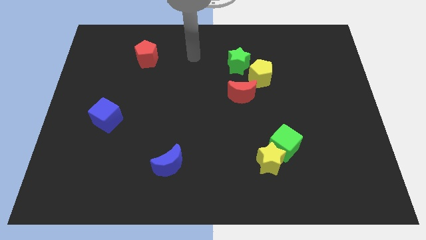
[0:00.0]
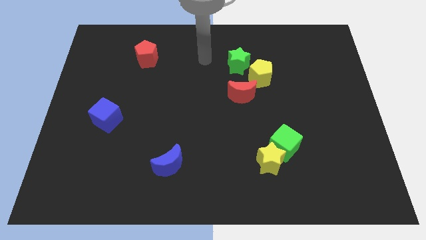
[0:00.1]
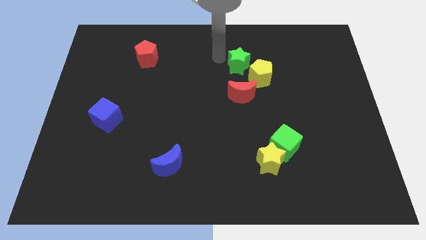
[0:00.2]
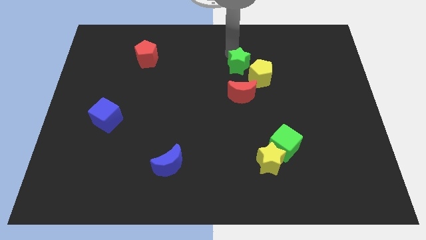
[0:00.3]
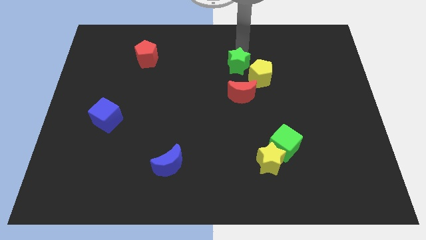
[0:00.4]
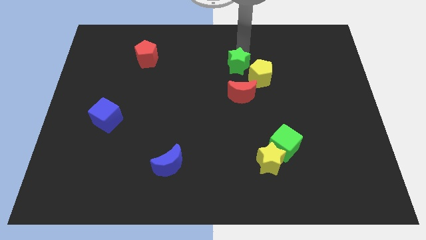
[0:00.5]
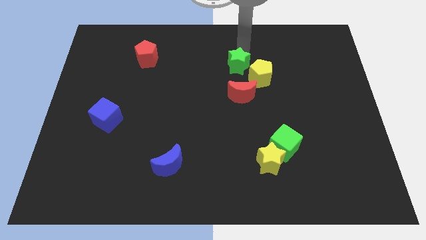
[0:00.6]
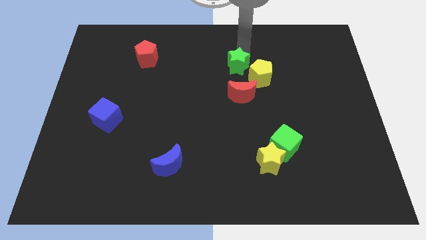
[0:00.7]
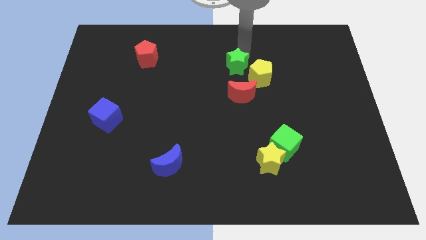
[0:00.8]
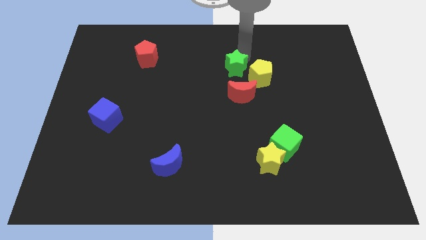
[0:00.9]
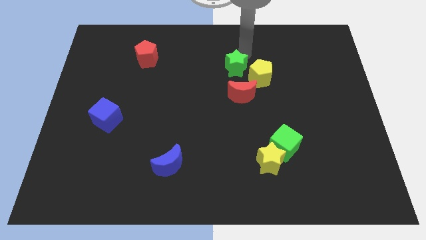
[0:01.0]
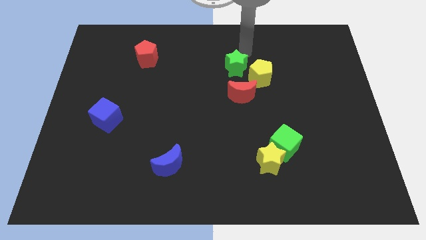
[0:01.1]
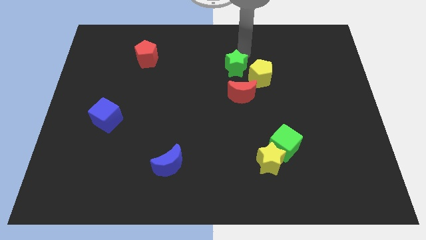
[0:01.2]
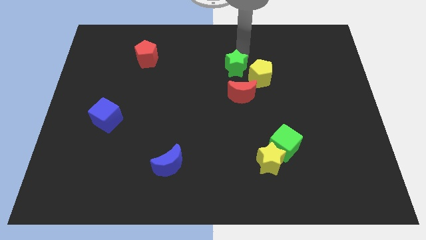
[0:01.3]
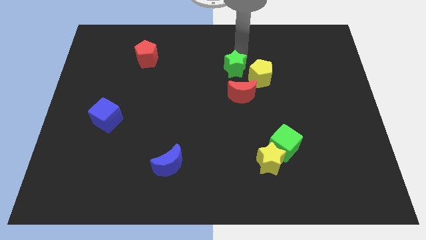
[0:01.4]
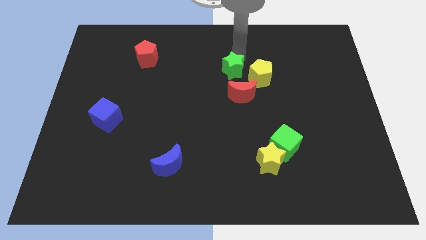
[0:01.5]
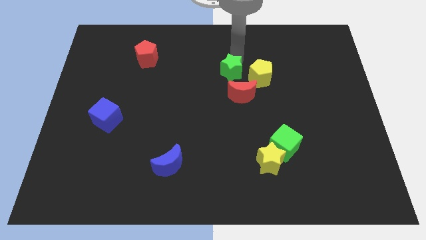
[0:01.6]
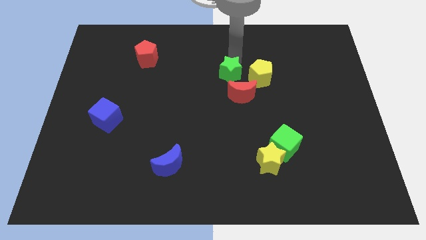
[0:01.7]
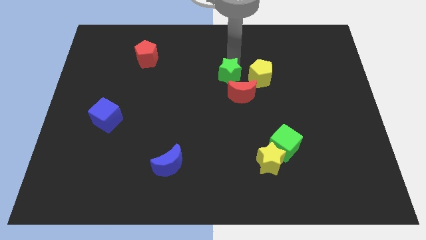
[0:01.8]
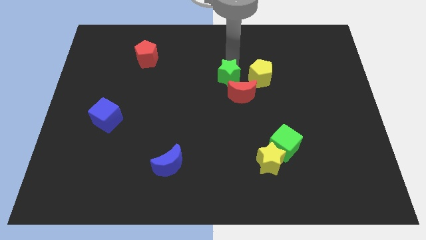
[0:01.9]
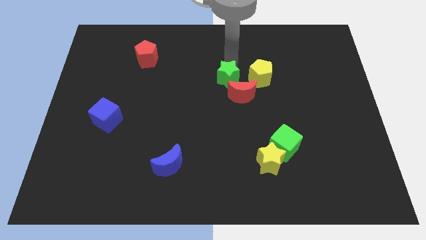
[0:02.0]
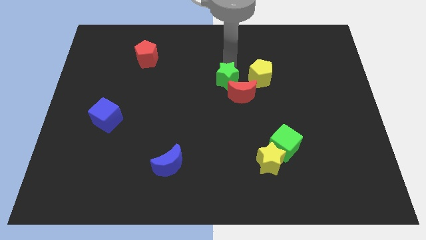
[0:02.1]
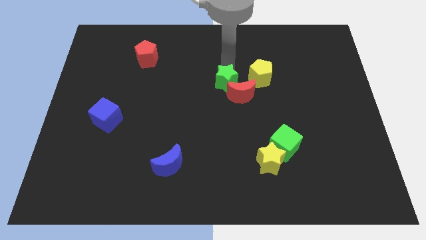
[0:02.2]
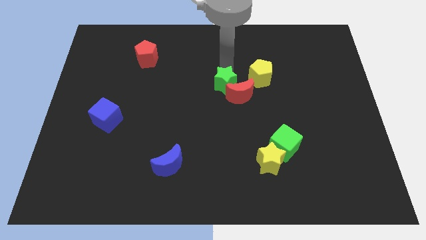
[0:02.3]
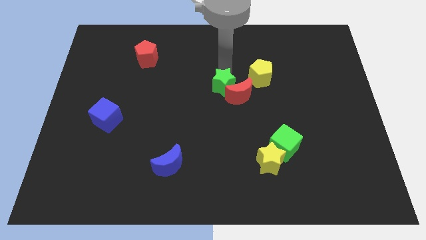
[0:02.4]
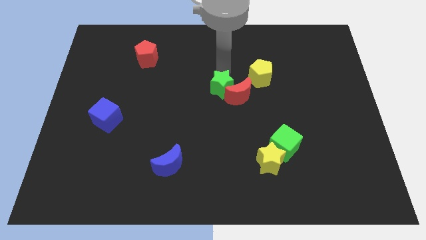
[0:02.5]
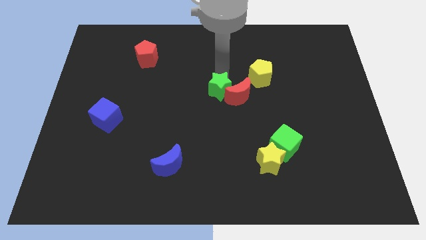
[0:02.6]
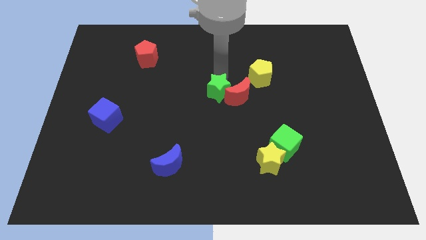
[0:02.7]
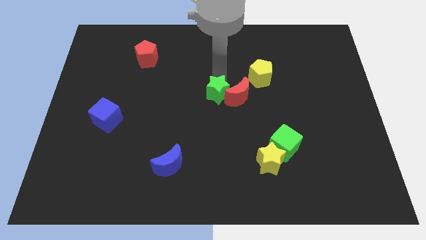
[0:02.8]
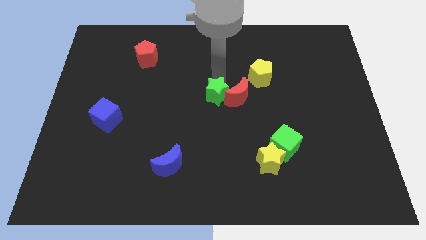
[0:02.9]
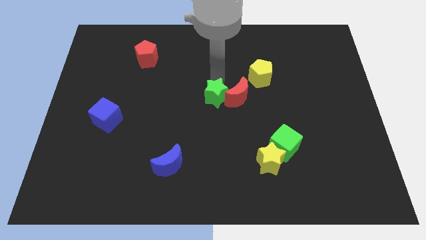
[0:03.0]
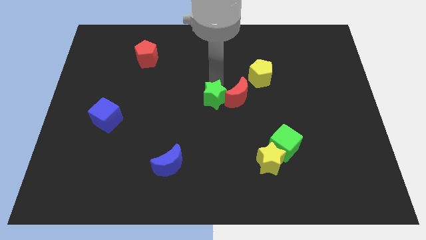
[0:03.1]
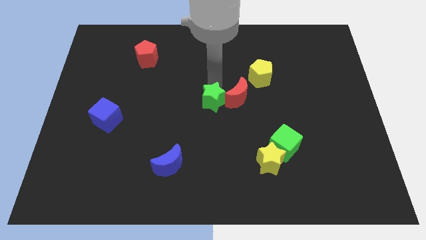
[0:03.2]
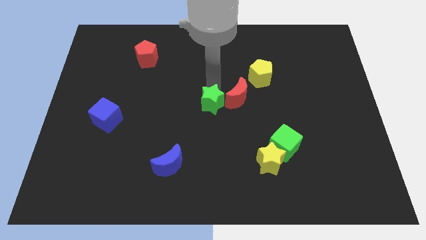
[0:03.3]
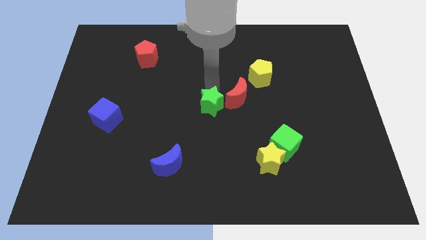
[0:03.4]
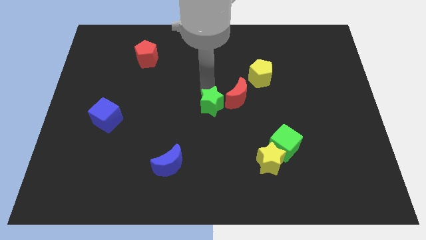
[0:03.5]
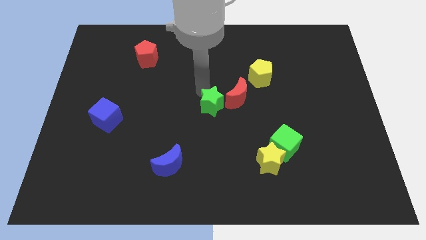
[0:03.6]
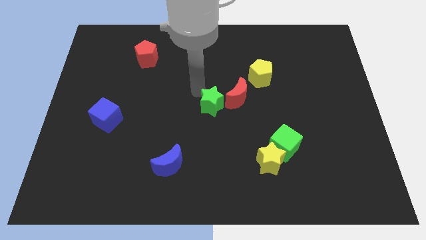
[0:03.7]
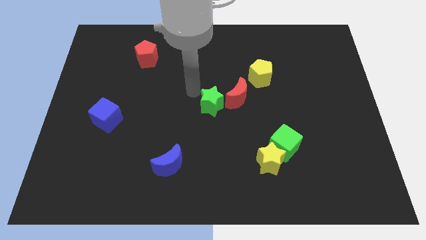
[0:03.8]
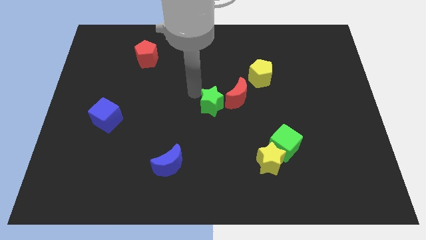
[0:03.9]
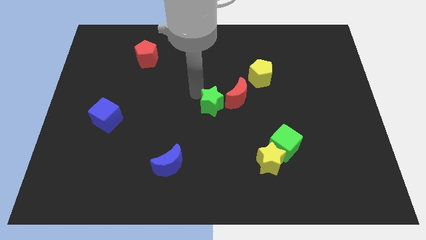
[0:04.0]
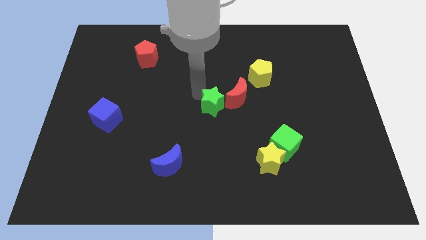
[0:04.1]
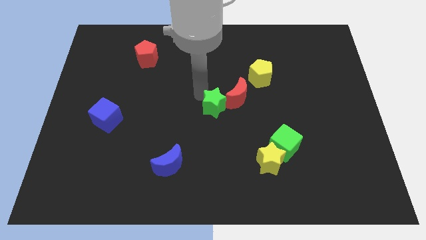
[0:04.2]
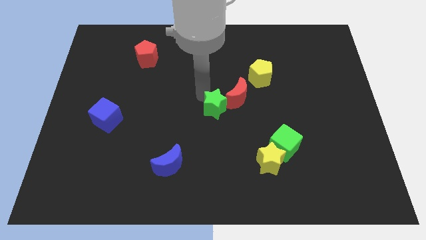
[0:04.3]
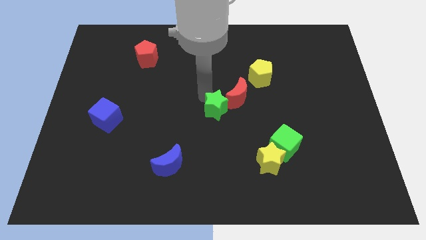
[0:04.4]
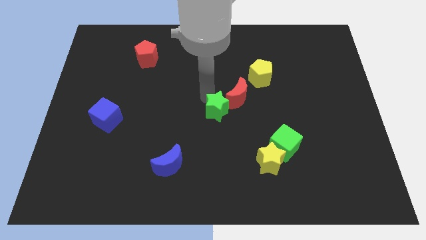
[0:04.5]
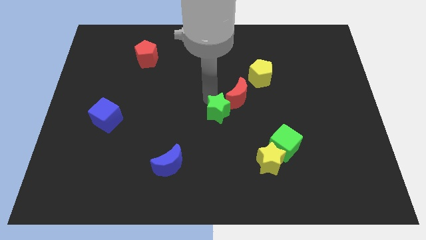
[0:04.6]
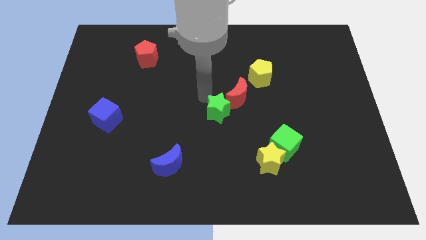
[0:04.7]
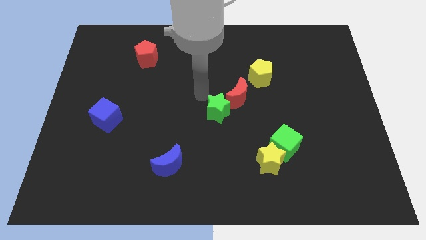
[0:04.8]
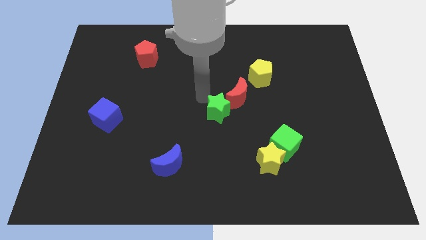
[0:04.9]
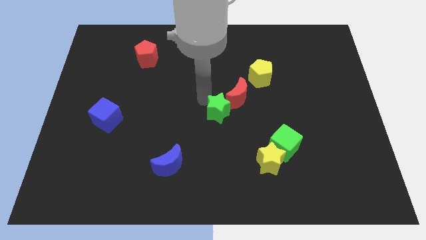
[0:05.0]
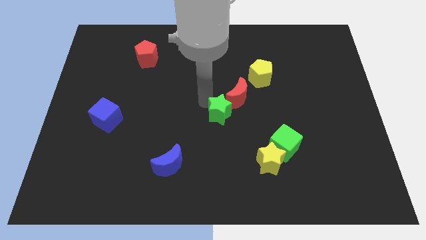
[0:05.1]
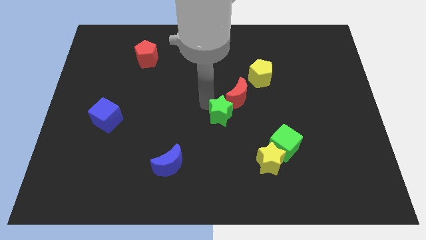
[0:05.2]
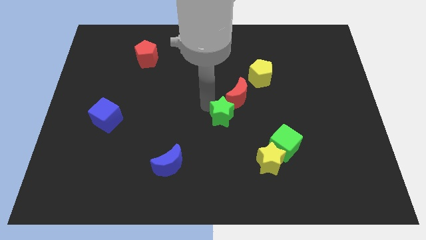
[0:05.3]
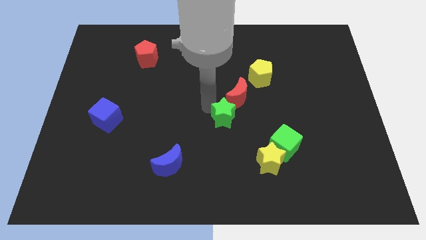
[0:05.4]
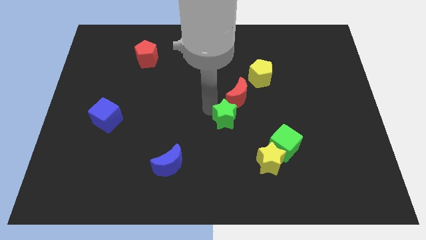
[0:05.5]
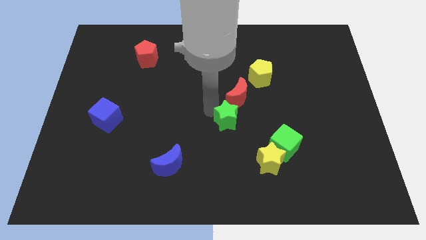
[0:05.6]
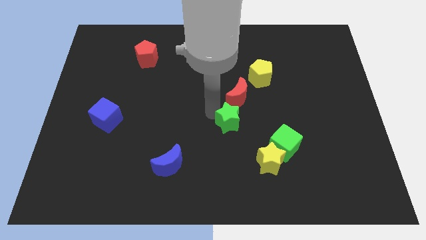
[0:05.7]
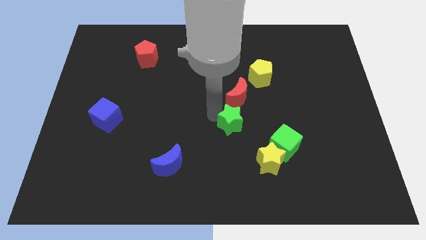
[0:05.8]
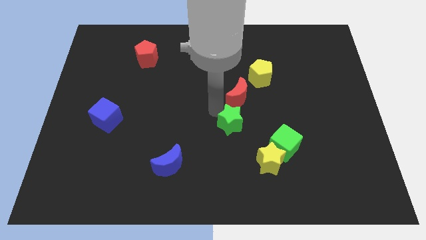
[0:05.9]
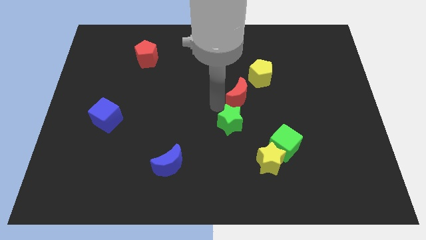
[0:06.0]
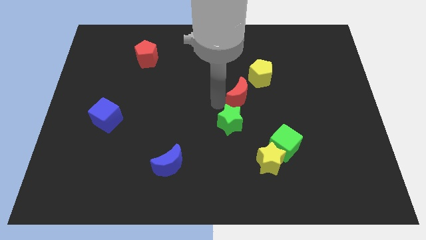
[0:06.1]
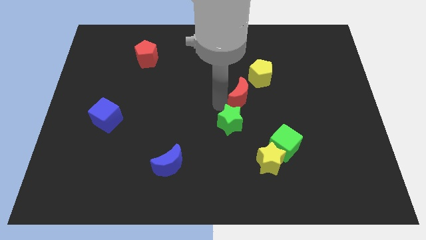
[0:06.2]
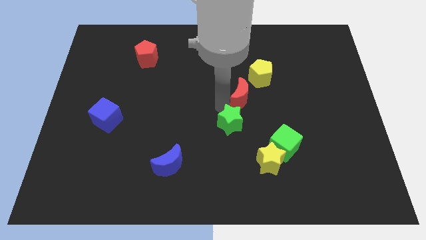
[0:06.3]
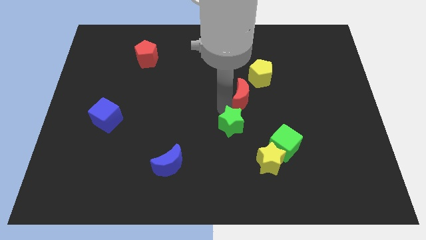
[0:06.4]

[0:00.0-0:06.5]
slide the green star to the top left side of the yellow star
